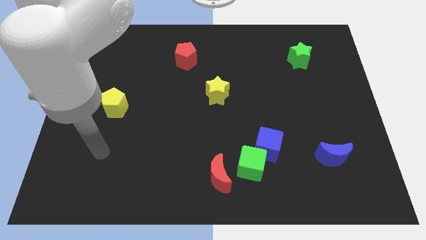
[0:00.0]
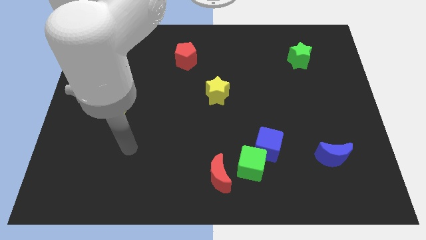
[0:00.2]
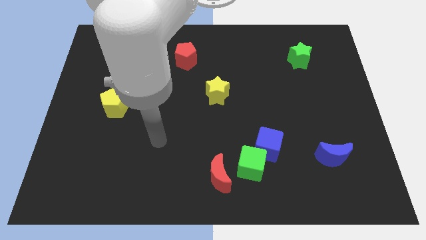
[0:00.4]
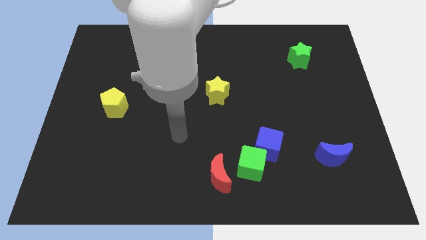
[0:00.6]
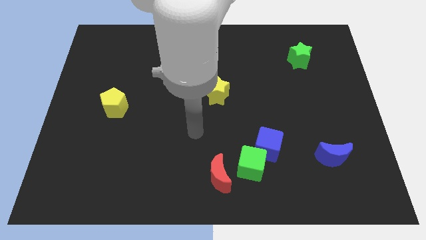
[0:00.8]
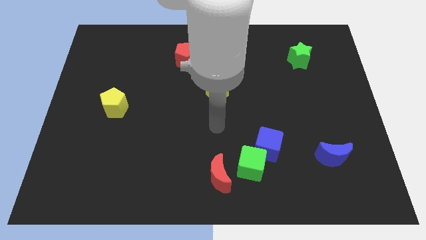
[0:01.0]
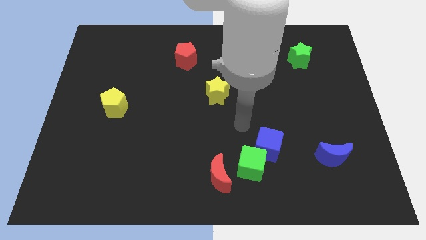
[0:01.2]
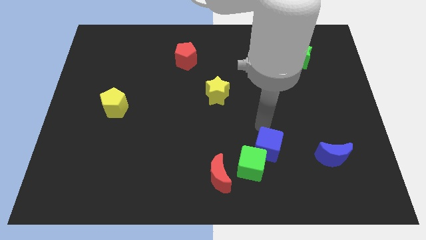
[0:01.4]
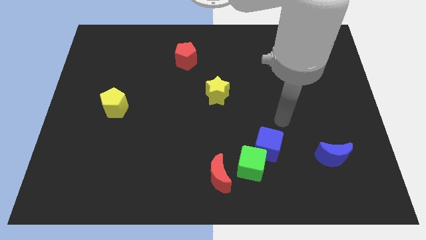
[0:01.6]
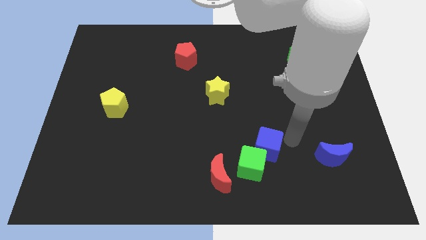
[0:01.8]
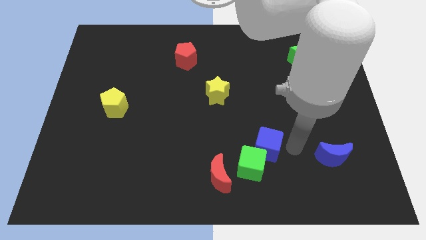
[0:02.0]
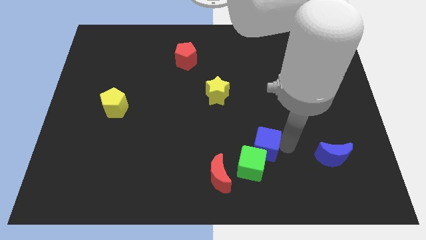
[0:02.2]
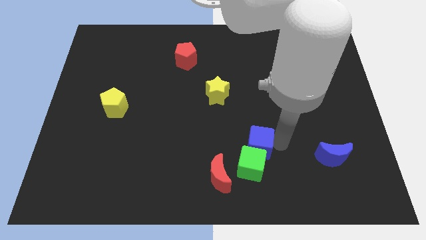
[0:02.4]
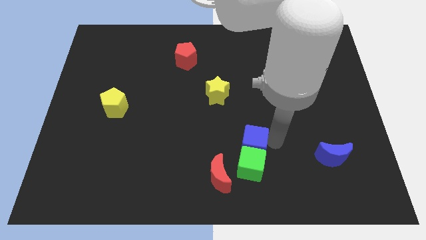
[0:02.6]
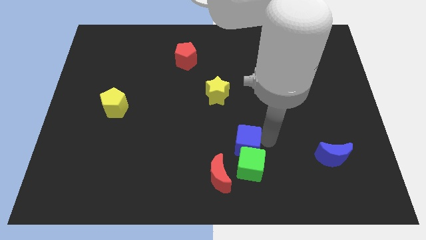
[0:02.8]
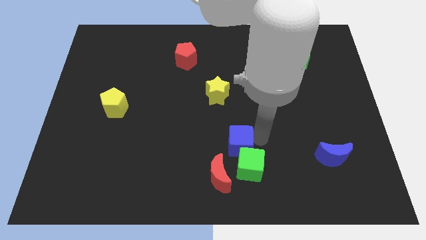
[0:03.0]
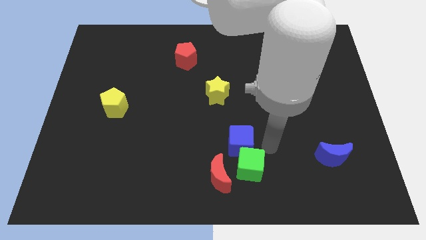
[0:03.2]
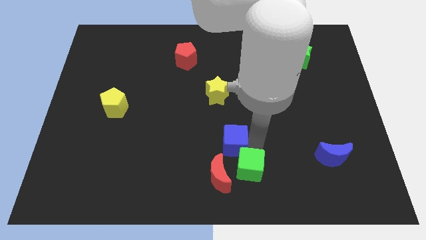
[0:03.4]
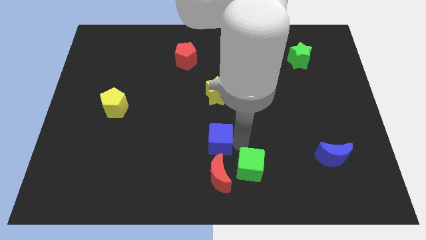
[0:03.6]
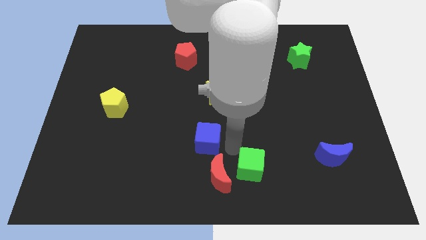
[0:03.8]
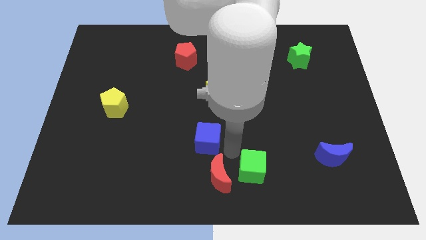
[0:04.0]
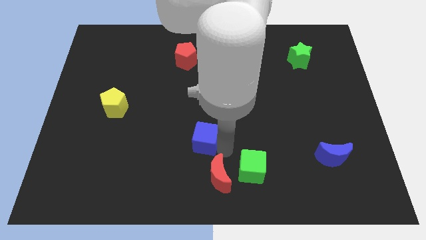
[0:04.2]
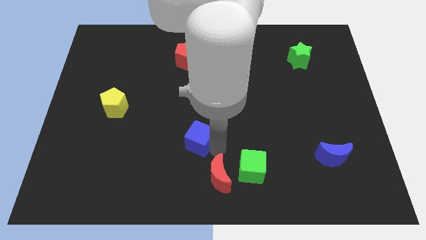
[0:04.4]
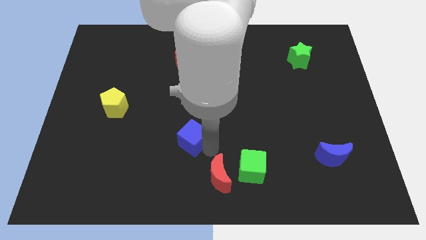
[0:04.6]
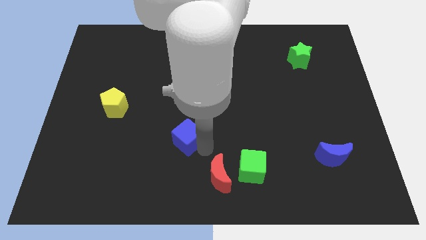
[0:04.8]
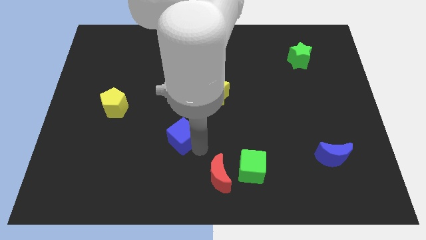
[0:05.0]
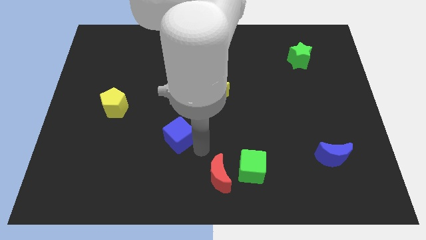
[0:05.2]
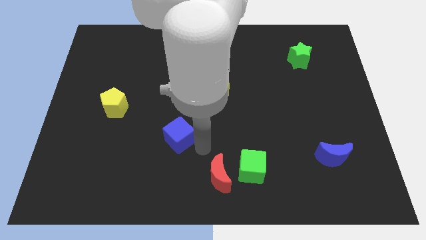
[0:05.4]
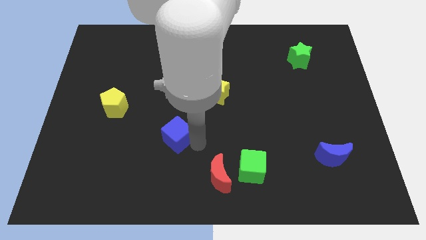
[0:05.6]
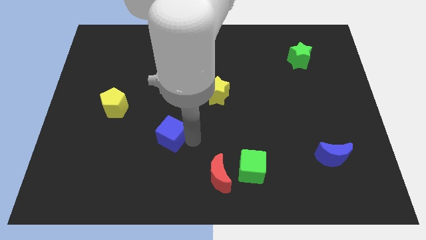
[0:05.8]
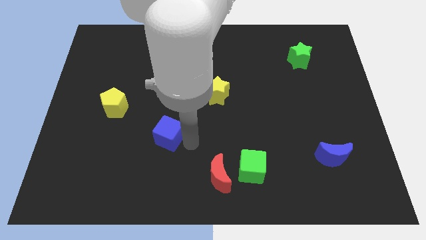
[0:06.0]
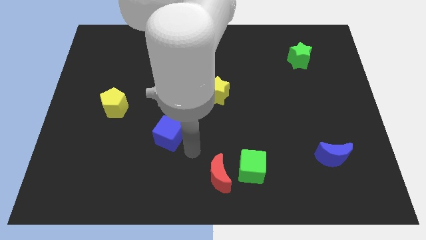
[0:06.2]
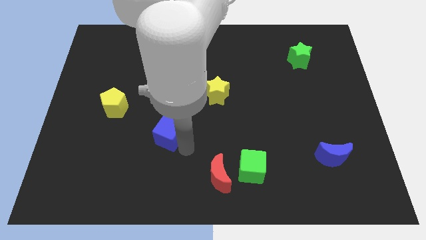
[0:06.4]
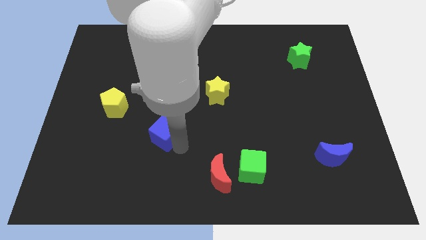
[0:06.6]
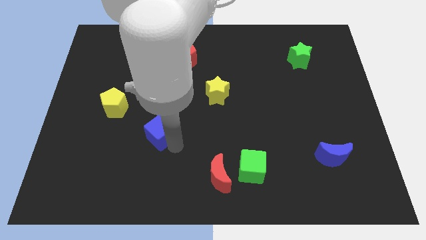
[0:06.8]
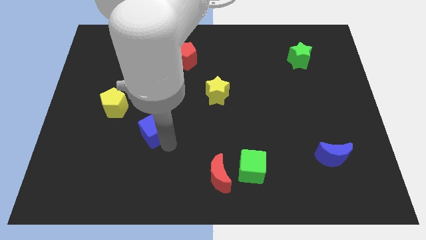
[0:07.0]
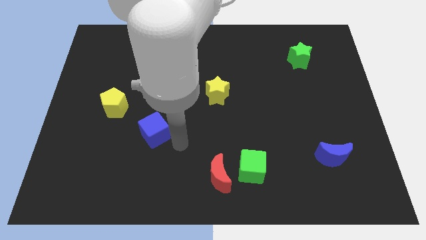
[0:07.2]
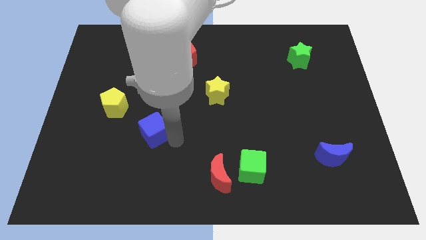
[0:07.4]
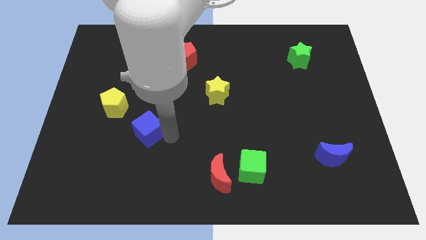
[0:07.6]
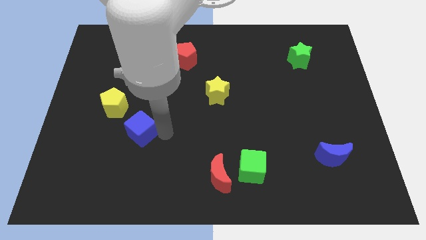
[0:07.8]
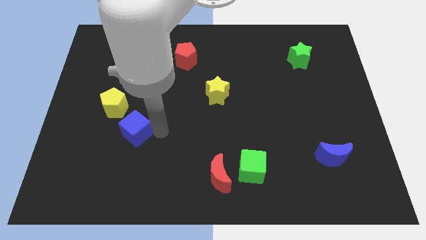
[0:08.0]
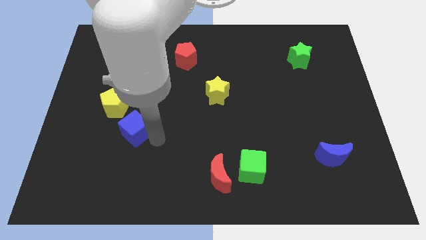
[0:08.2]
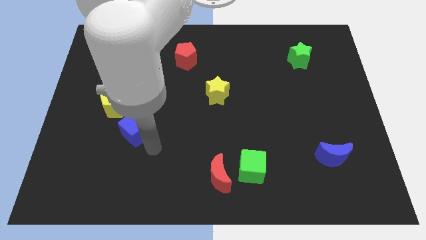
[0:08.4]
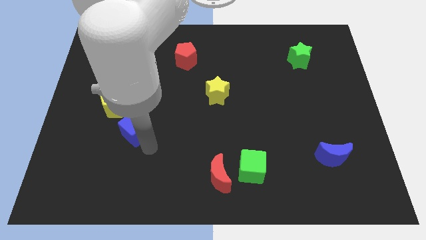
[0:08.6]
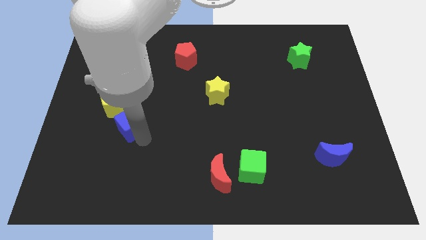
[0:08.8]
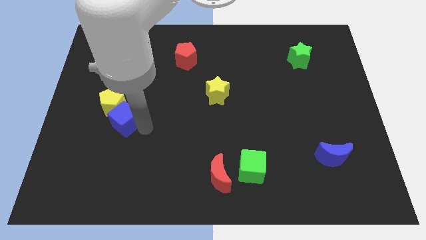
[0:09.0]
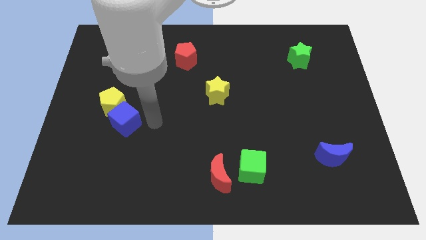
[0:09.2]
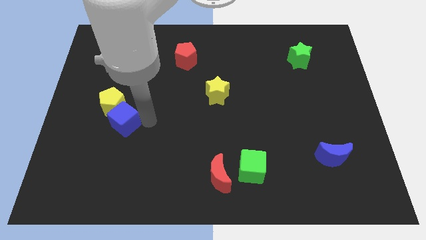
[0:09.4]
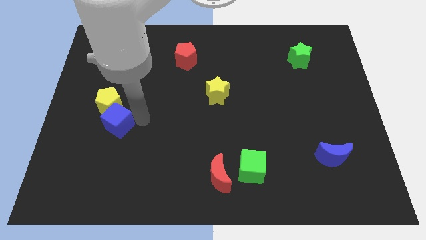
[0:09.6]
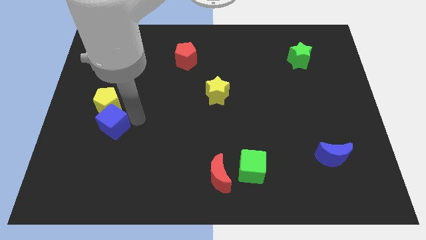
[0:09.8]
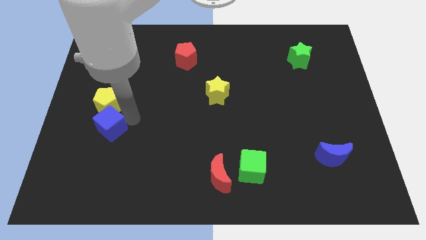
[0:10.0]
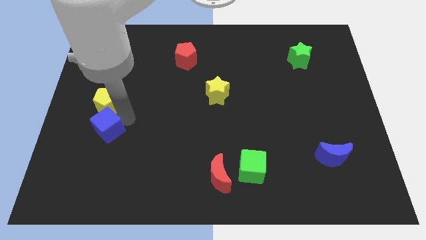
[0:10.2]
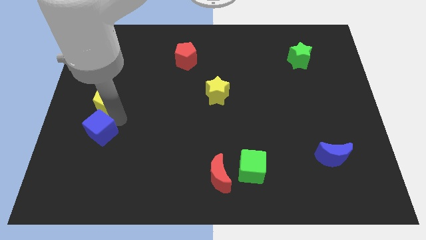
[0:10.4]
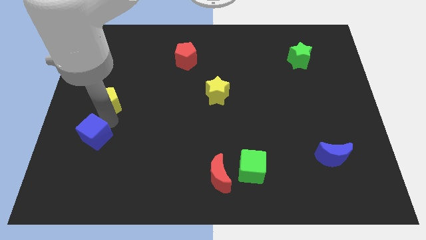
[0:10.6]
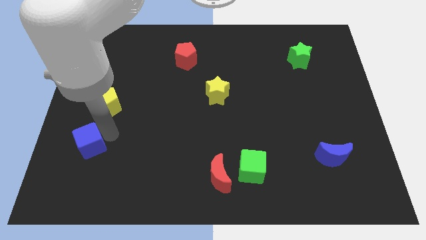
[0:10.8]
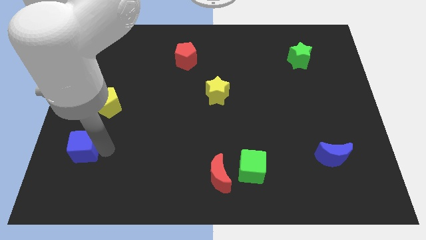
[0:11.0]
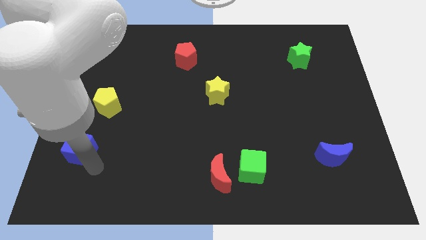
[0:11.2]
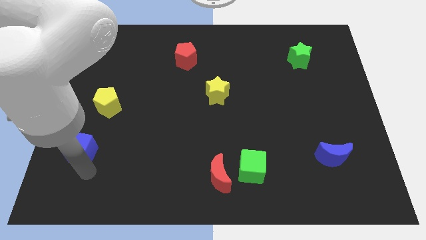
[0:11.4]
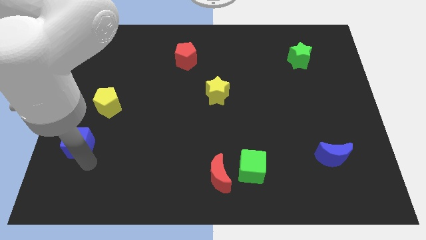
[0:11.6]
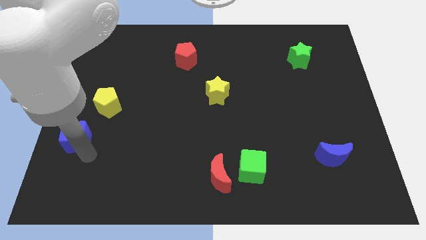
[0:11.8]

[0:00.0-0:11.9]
move the blue cube to the left side of the board

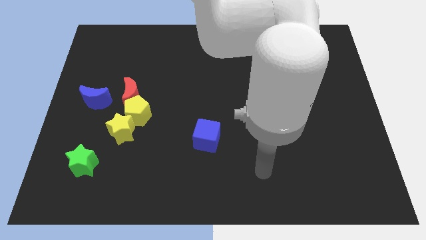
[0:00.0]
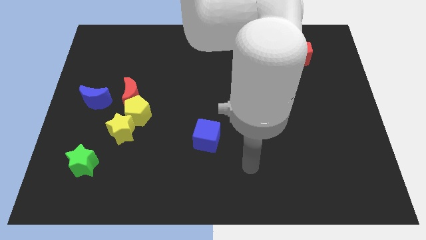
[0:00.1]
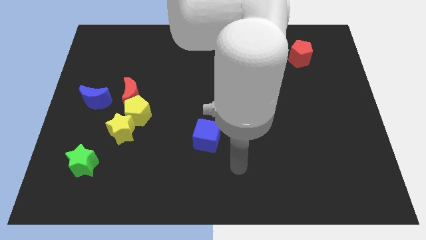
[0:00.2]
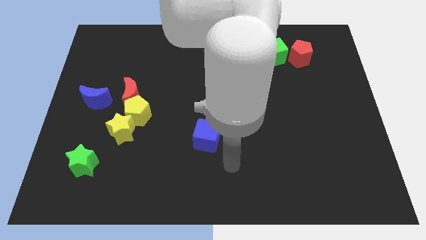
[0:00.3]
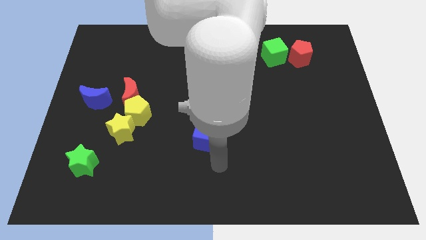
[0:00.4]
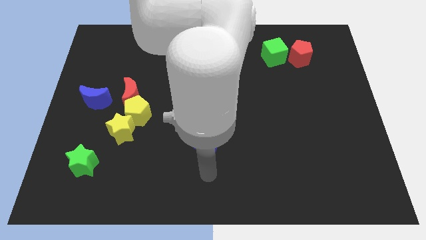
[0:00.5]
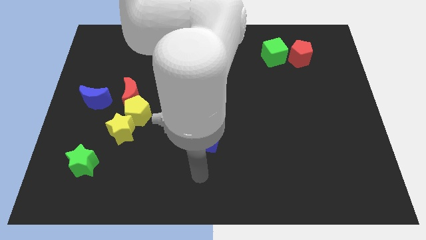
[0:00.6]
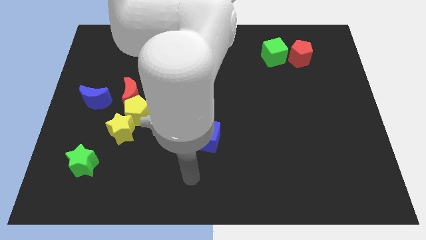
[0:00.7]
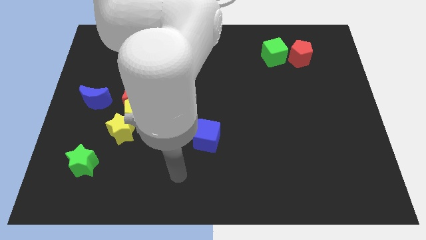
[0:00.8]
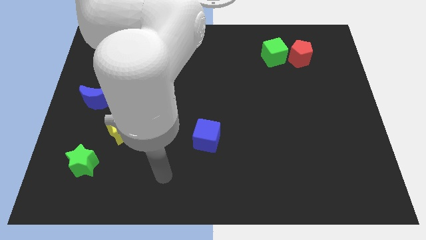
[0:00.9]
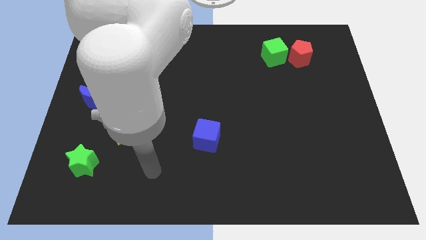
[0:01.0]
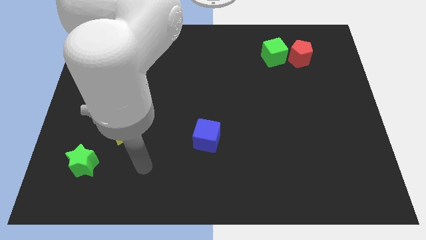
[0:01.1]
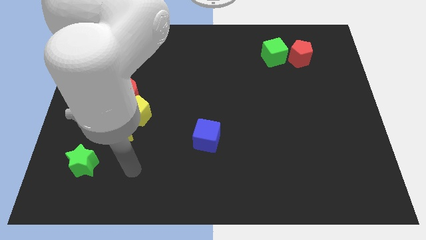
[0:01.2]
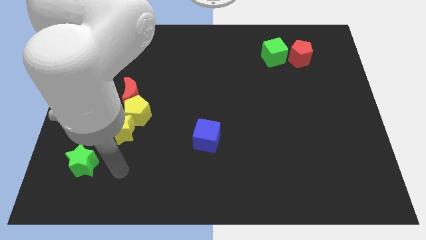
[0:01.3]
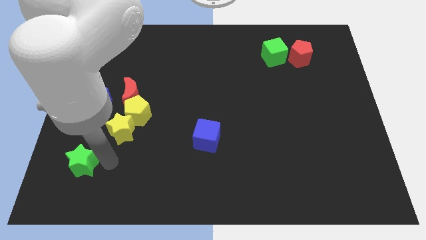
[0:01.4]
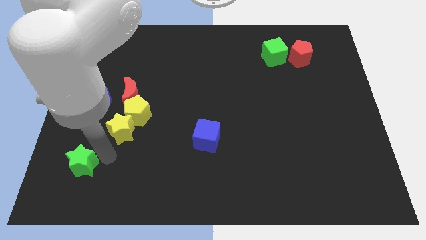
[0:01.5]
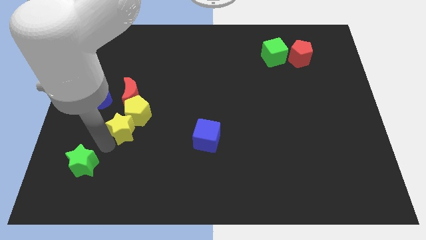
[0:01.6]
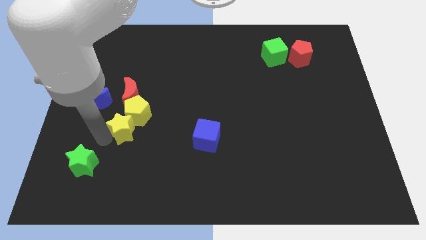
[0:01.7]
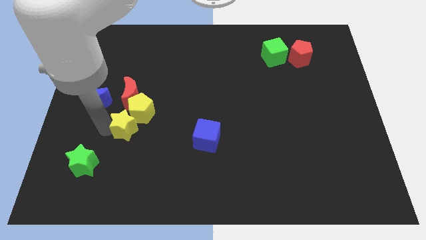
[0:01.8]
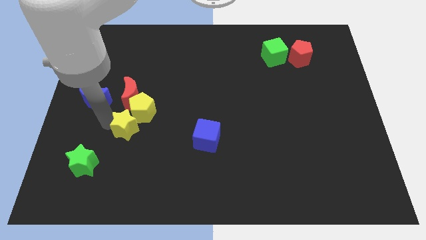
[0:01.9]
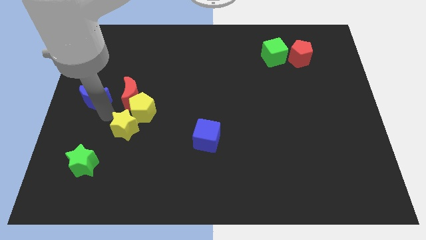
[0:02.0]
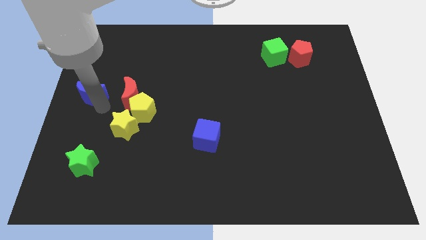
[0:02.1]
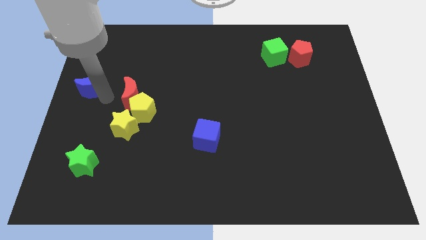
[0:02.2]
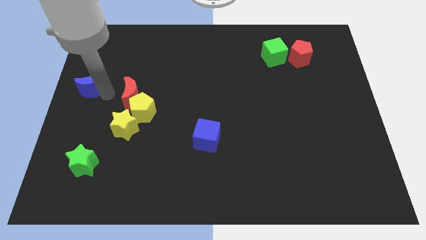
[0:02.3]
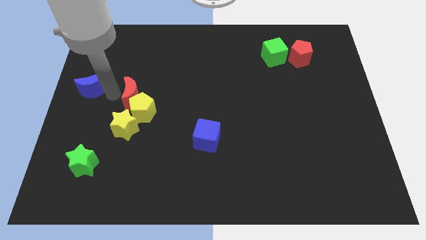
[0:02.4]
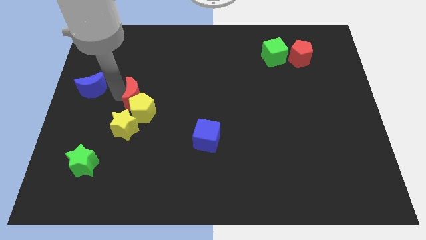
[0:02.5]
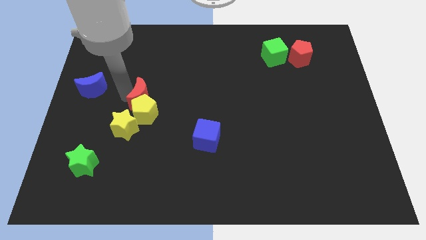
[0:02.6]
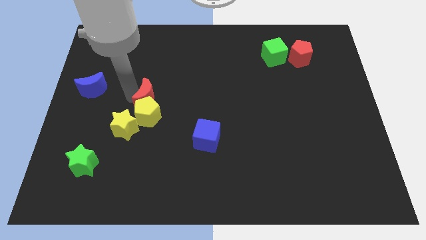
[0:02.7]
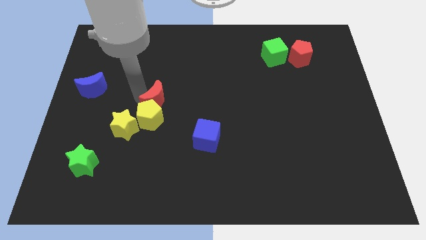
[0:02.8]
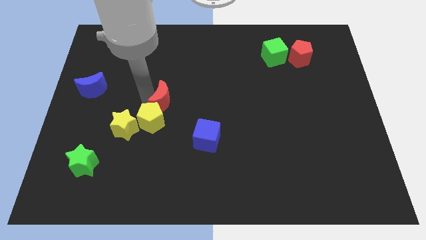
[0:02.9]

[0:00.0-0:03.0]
move the red moon to the middle
